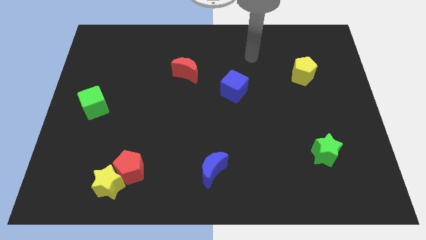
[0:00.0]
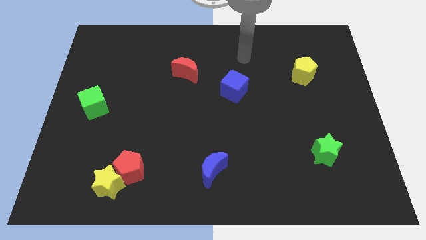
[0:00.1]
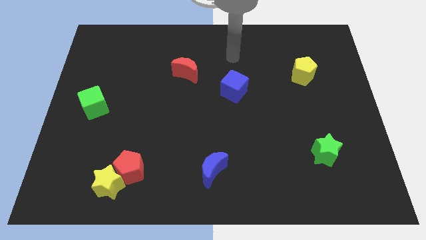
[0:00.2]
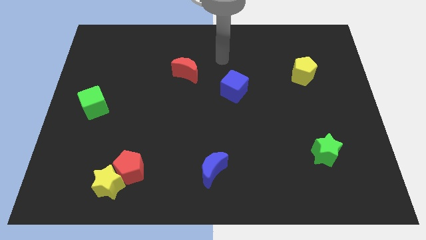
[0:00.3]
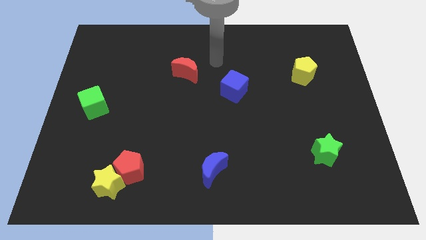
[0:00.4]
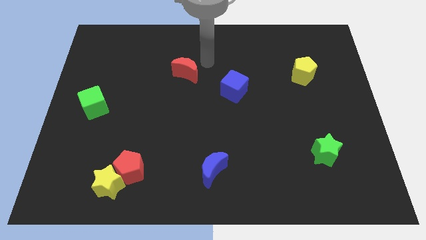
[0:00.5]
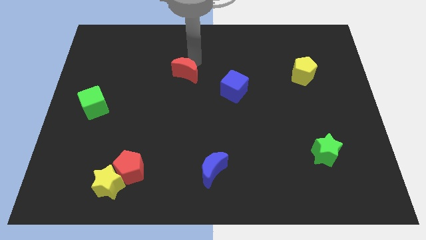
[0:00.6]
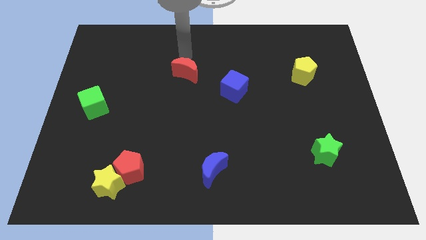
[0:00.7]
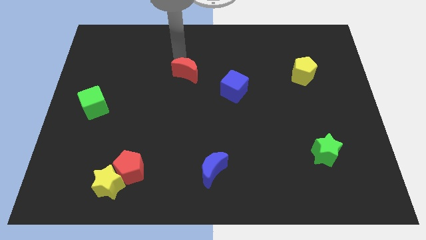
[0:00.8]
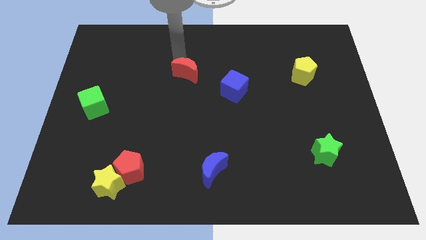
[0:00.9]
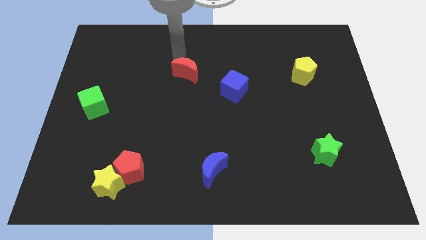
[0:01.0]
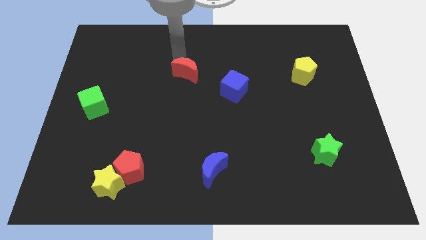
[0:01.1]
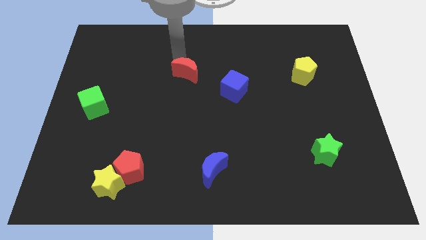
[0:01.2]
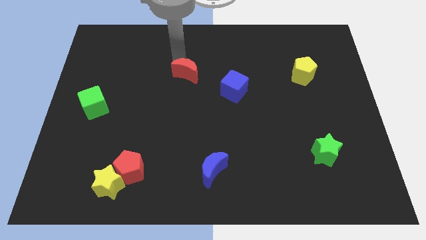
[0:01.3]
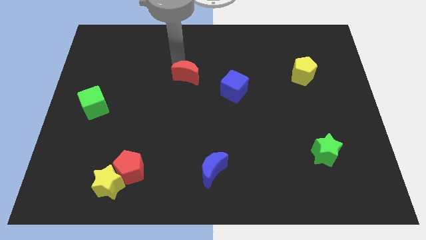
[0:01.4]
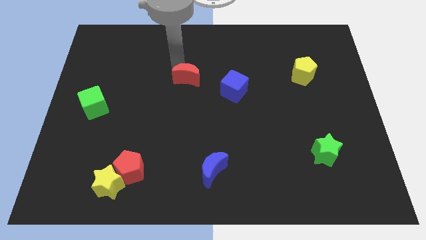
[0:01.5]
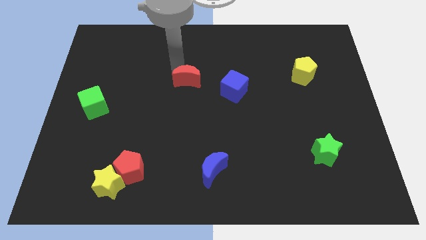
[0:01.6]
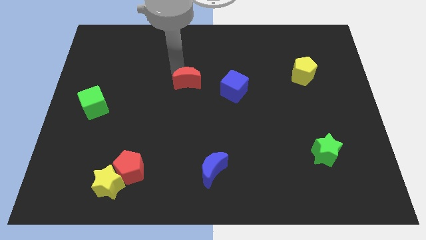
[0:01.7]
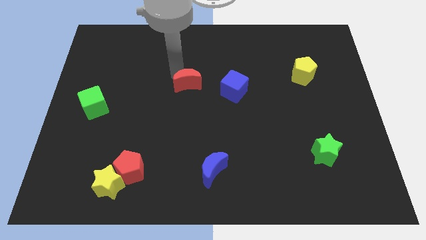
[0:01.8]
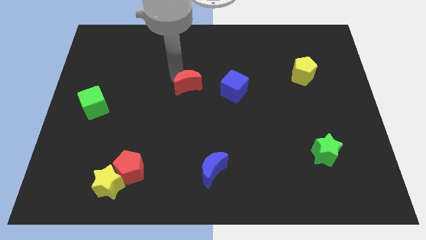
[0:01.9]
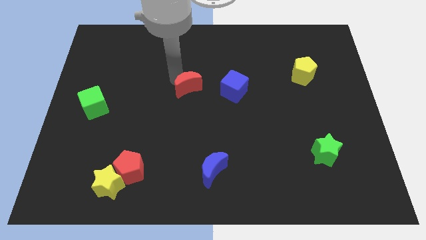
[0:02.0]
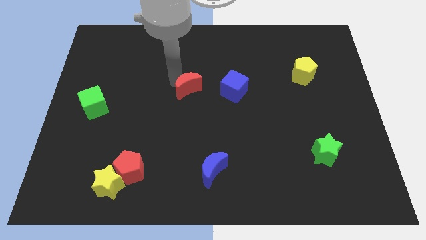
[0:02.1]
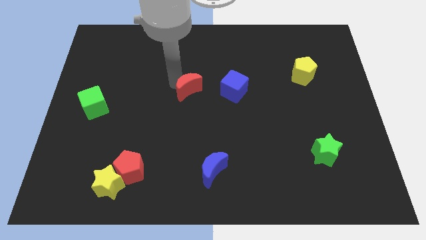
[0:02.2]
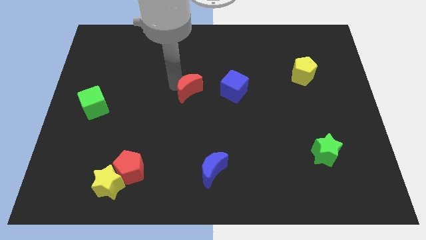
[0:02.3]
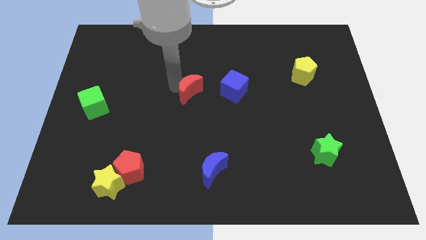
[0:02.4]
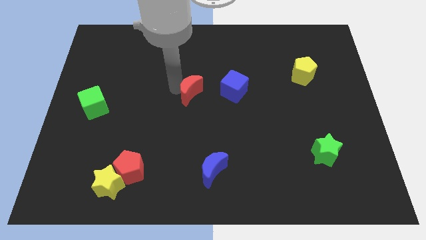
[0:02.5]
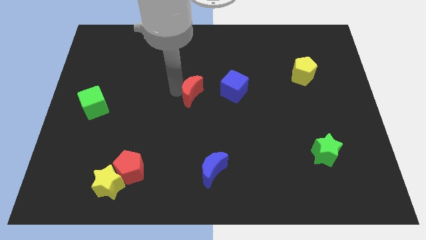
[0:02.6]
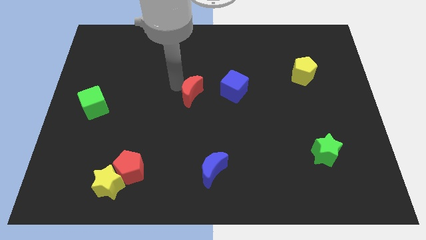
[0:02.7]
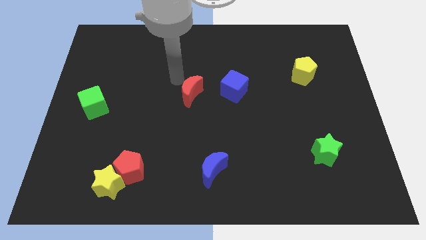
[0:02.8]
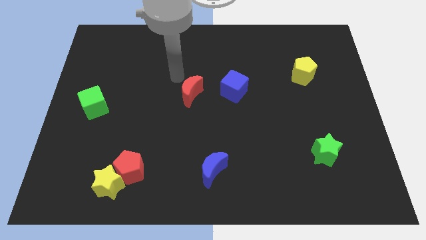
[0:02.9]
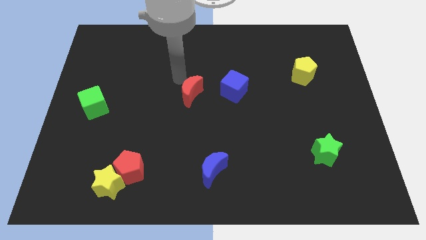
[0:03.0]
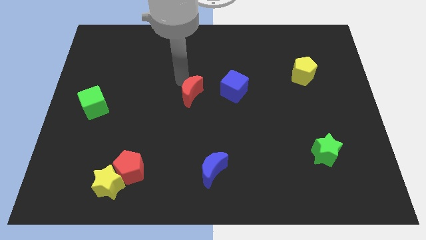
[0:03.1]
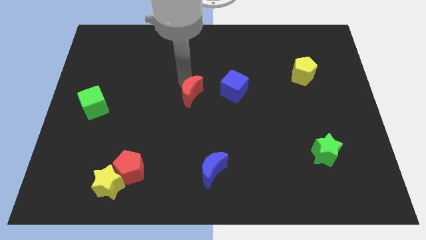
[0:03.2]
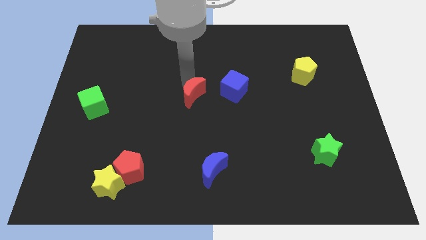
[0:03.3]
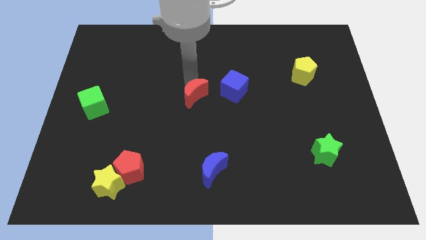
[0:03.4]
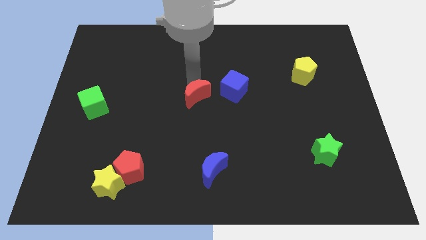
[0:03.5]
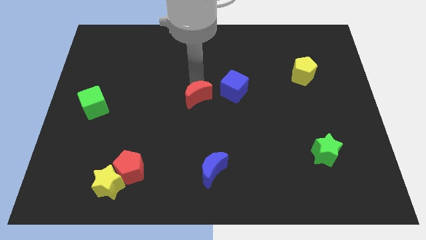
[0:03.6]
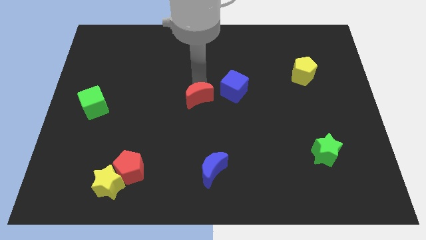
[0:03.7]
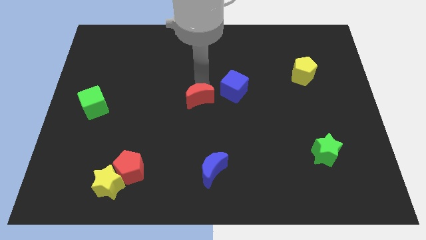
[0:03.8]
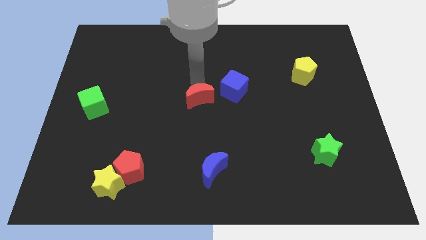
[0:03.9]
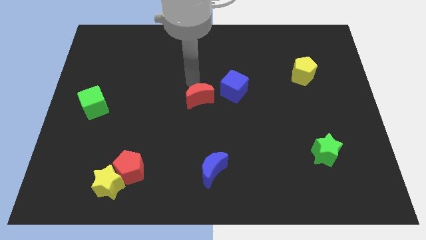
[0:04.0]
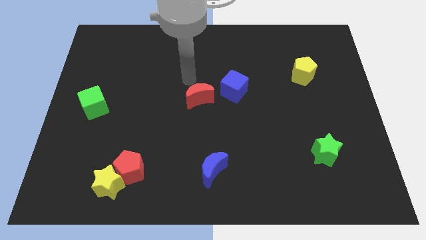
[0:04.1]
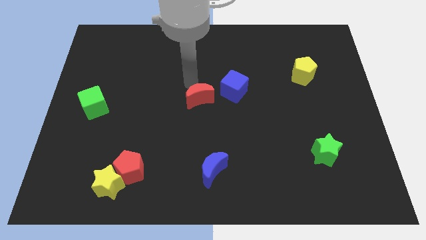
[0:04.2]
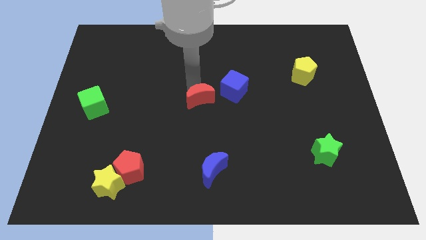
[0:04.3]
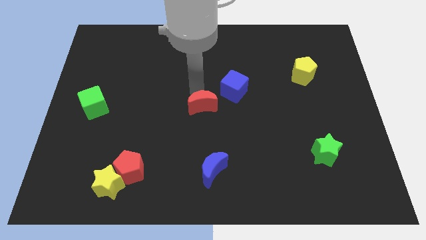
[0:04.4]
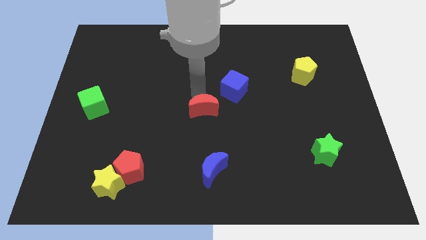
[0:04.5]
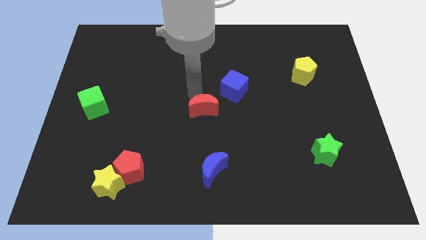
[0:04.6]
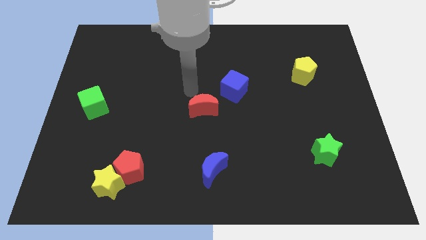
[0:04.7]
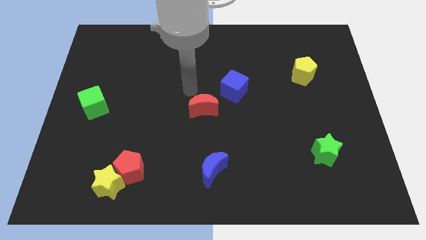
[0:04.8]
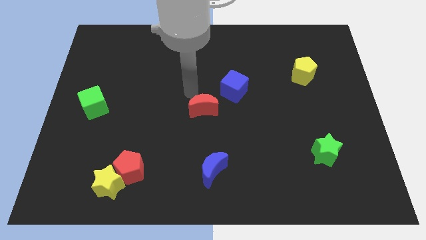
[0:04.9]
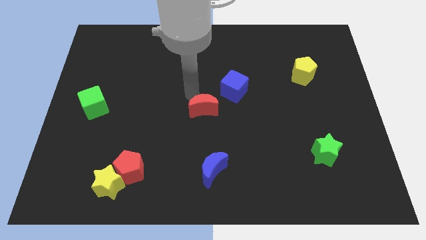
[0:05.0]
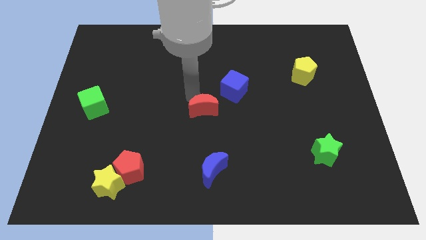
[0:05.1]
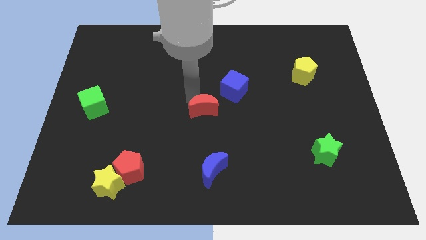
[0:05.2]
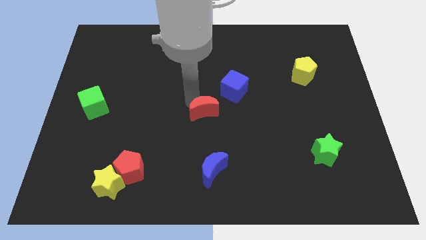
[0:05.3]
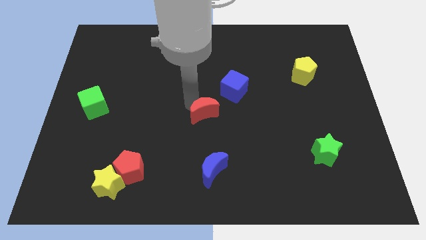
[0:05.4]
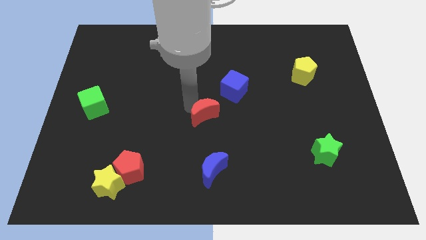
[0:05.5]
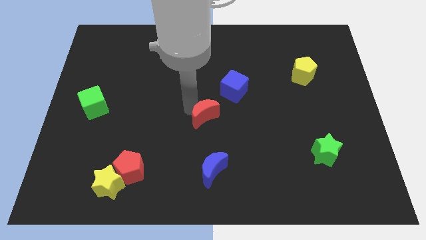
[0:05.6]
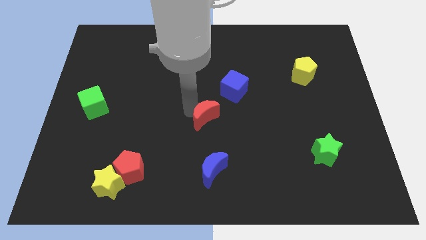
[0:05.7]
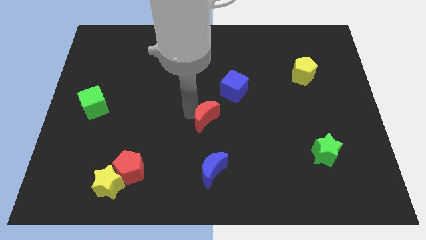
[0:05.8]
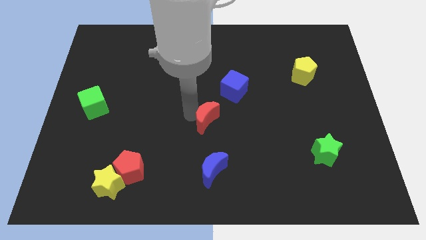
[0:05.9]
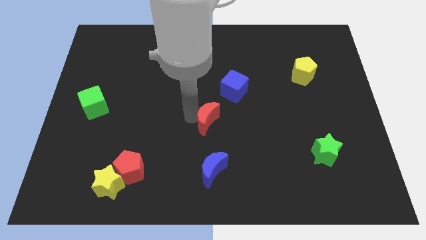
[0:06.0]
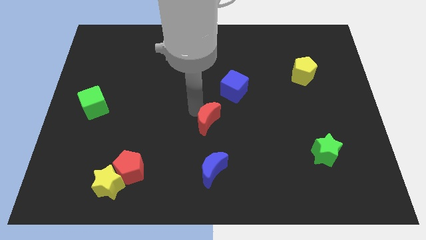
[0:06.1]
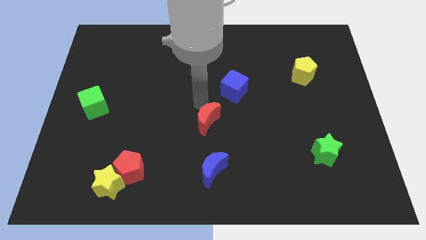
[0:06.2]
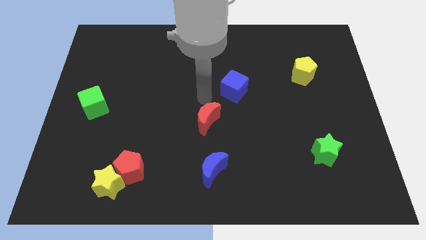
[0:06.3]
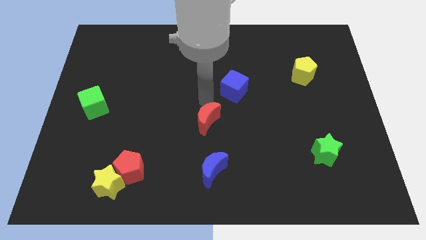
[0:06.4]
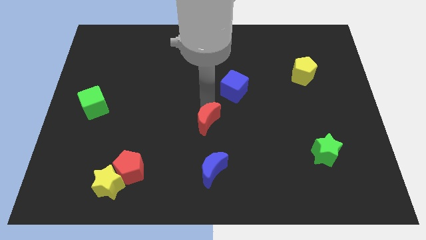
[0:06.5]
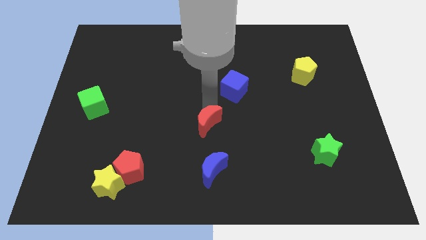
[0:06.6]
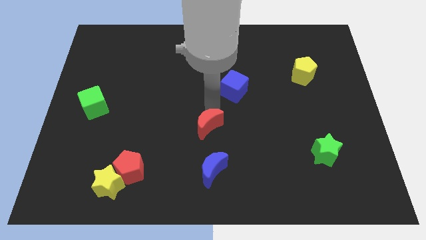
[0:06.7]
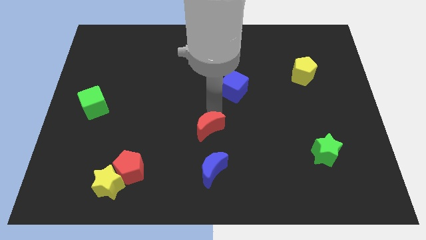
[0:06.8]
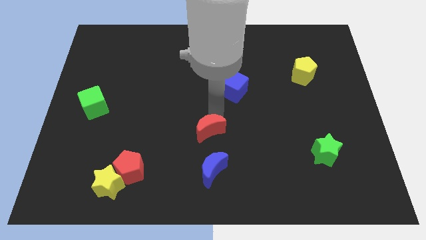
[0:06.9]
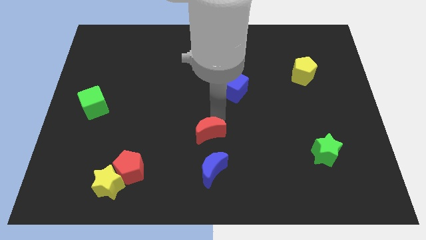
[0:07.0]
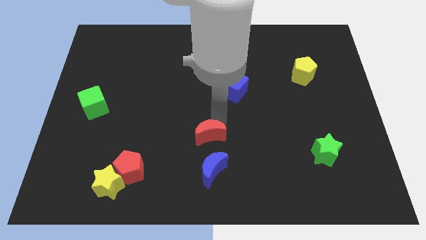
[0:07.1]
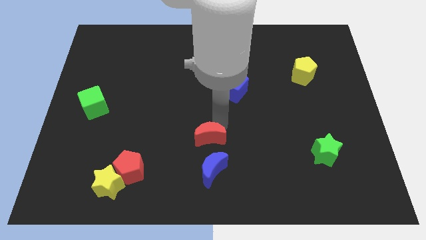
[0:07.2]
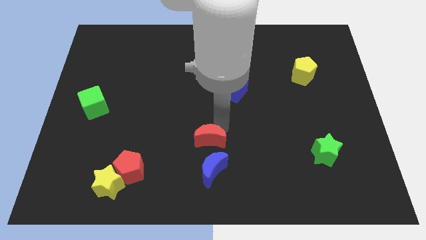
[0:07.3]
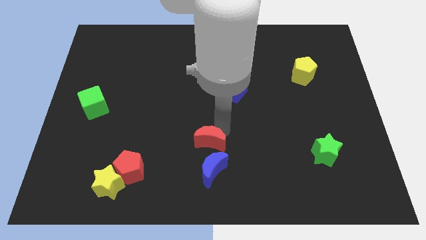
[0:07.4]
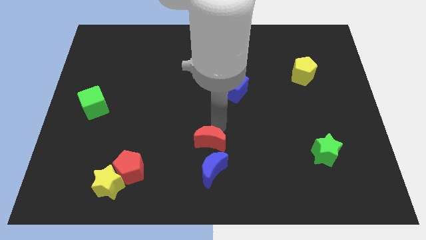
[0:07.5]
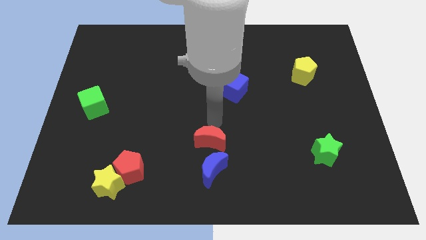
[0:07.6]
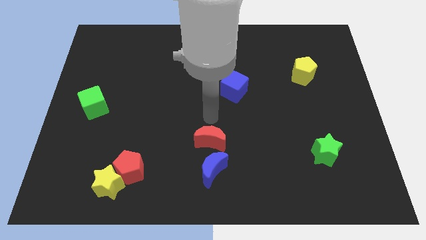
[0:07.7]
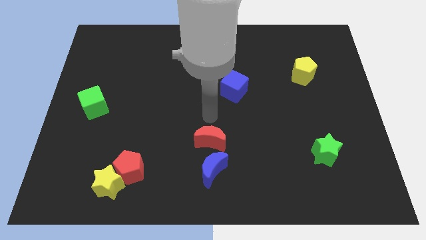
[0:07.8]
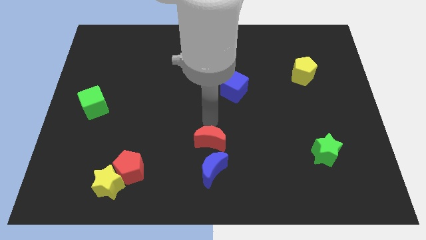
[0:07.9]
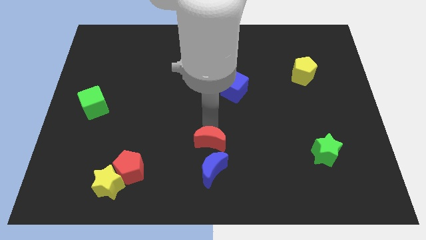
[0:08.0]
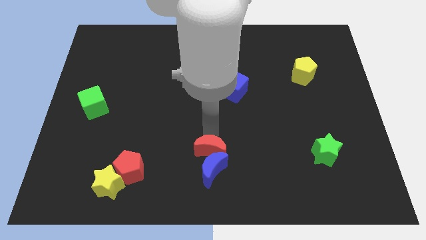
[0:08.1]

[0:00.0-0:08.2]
put the red moon to the blue moon
